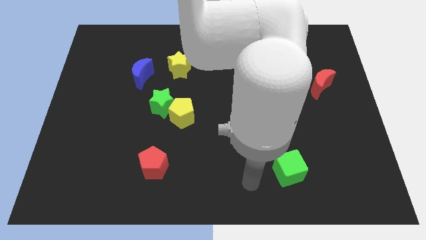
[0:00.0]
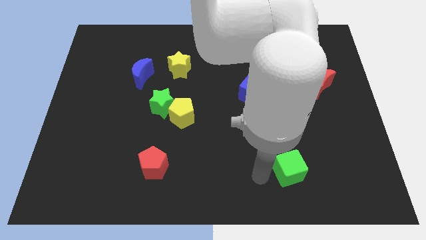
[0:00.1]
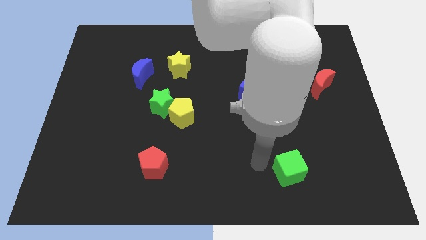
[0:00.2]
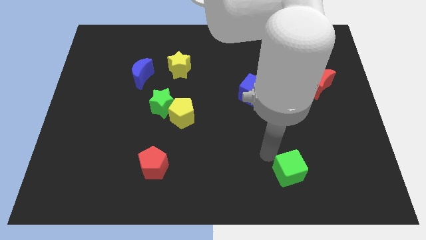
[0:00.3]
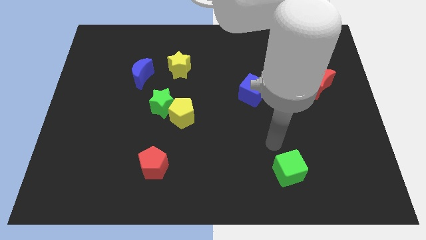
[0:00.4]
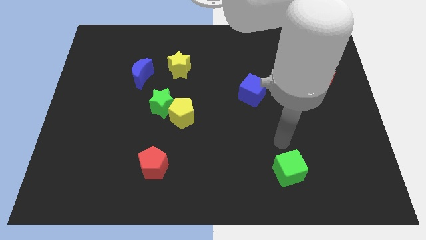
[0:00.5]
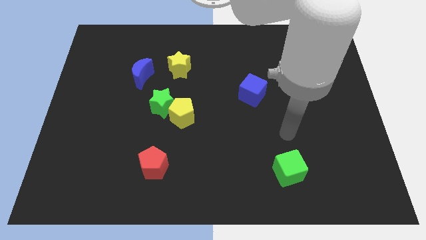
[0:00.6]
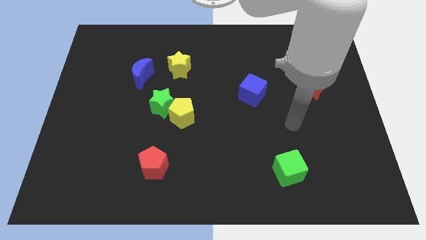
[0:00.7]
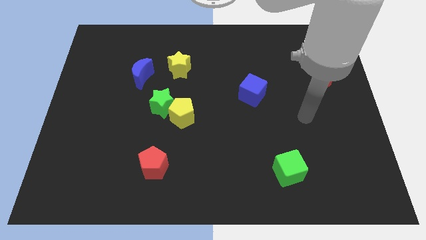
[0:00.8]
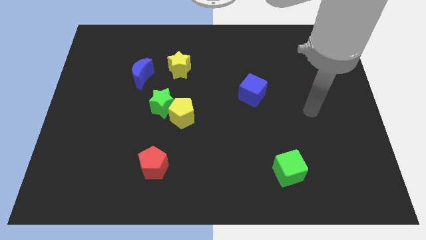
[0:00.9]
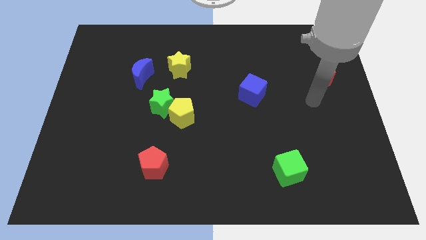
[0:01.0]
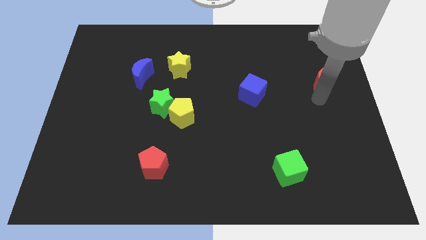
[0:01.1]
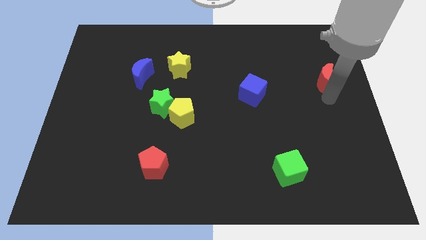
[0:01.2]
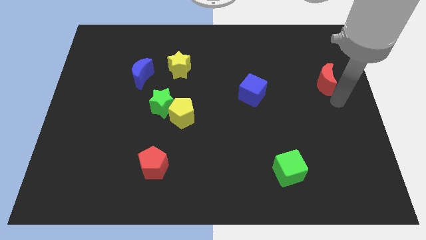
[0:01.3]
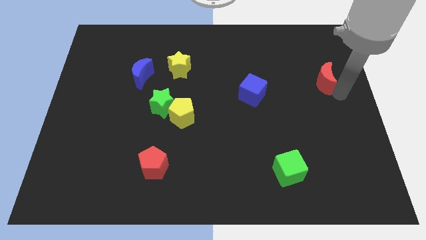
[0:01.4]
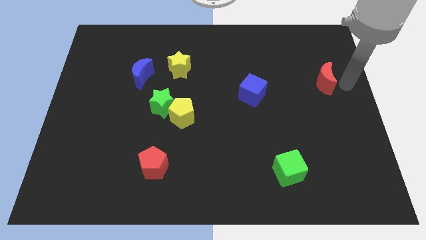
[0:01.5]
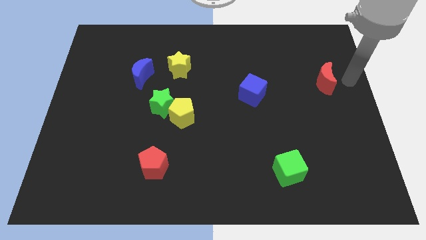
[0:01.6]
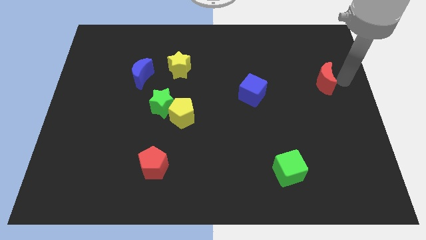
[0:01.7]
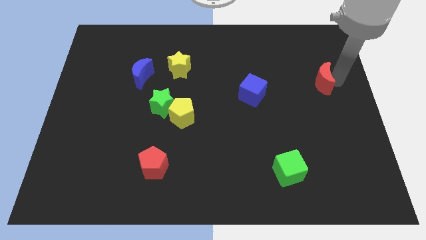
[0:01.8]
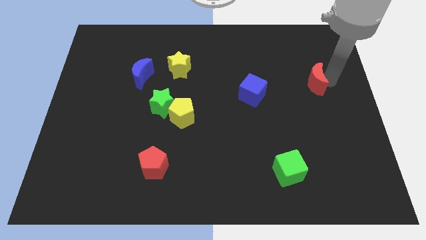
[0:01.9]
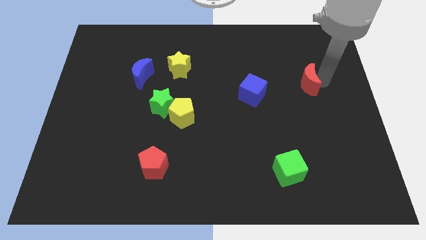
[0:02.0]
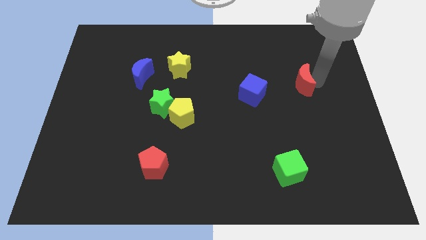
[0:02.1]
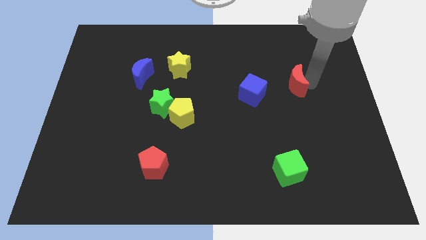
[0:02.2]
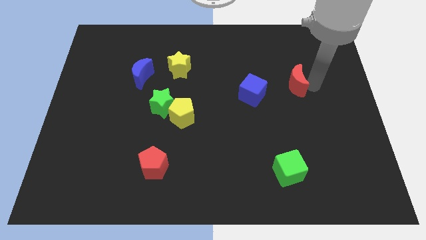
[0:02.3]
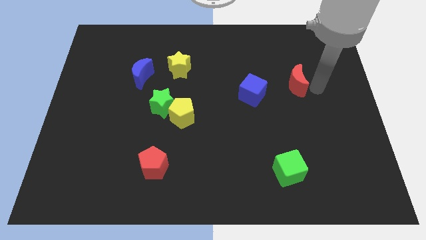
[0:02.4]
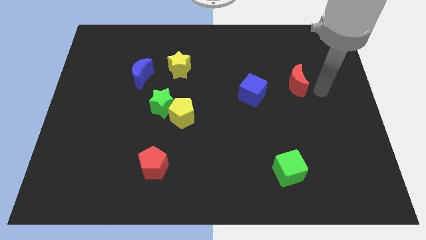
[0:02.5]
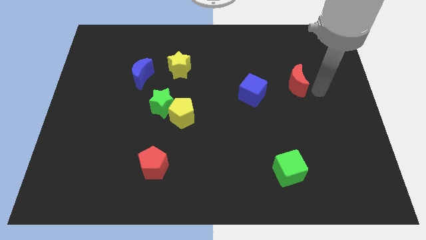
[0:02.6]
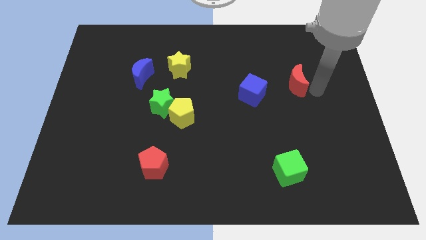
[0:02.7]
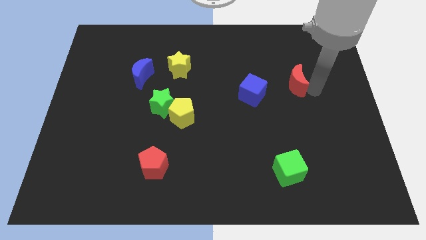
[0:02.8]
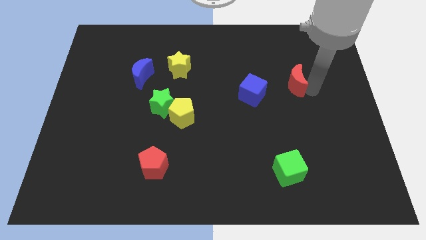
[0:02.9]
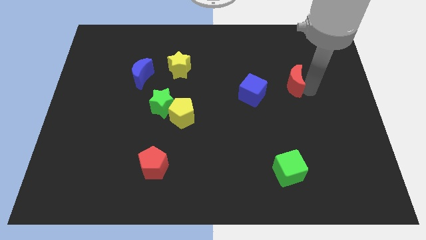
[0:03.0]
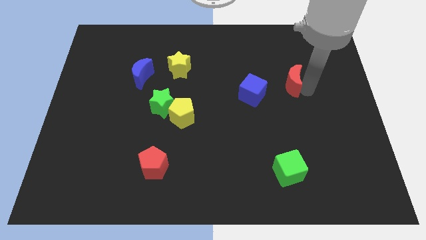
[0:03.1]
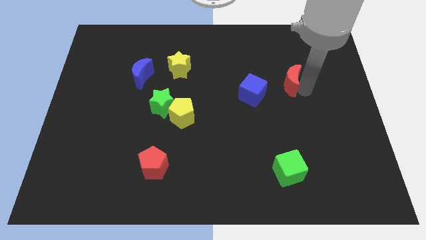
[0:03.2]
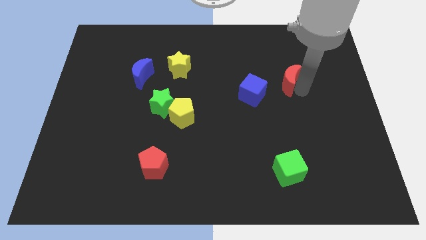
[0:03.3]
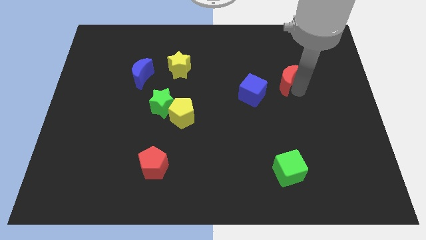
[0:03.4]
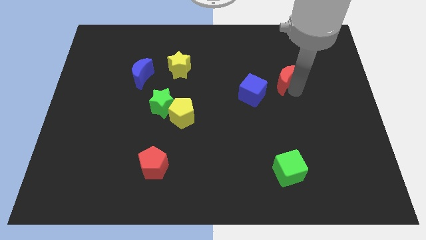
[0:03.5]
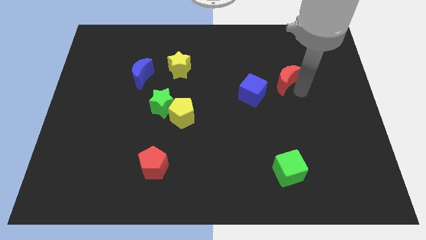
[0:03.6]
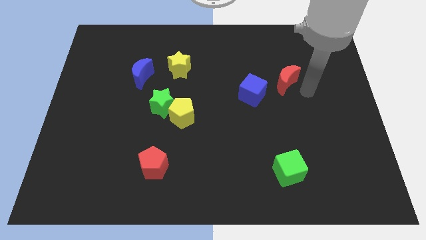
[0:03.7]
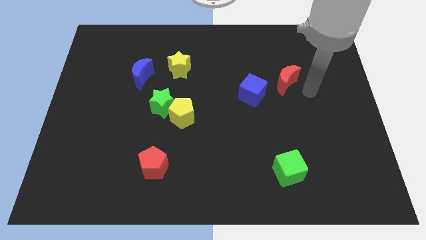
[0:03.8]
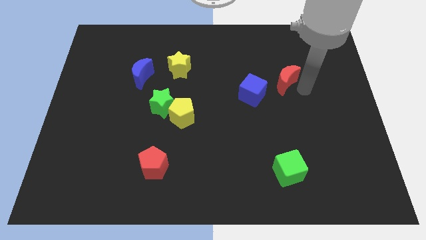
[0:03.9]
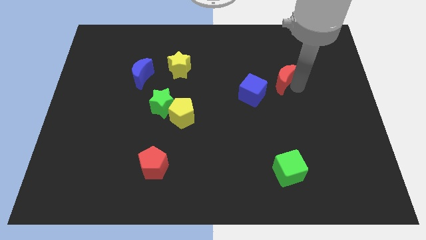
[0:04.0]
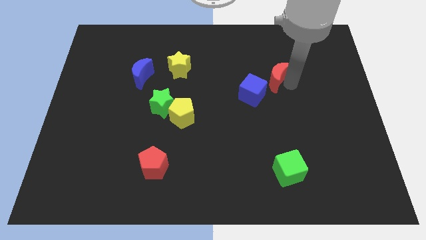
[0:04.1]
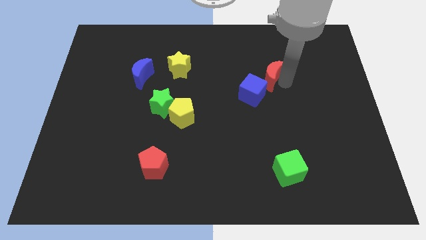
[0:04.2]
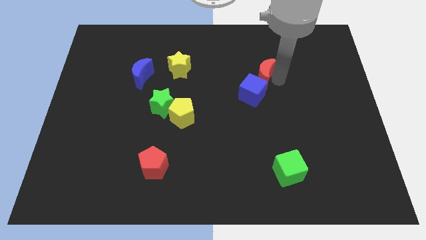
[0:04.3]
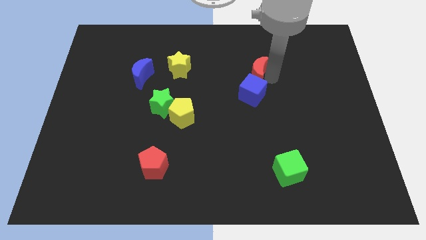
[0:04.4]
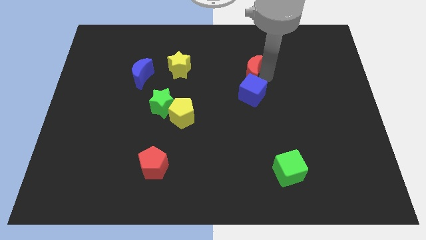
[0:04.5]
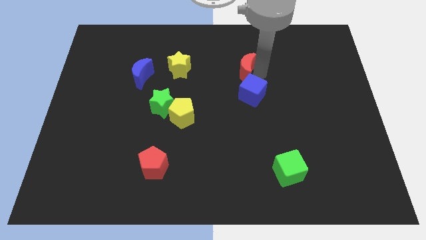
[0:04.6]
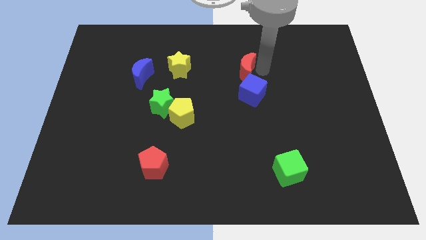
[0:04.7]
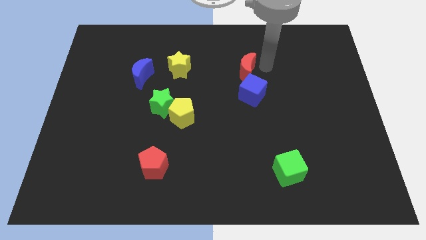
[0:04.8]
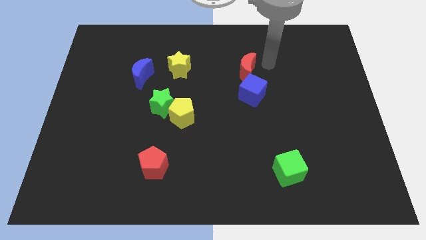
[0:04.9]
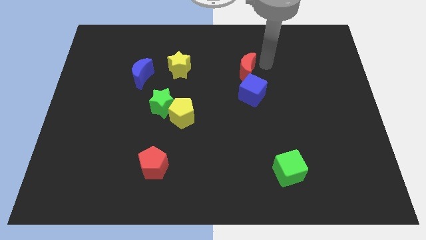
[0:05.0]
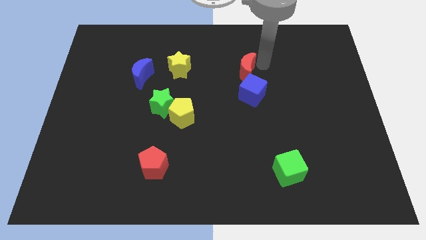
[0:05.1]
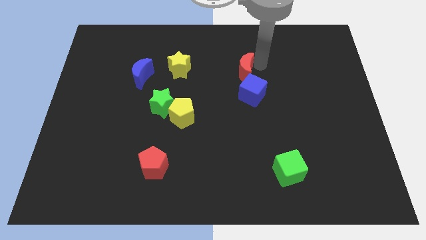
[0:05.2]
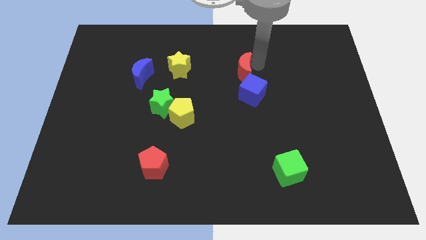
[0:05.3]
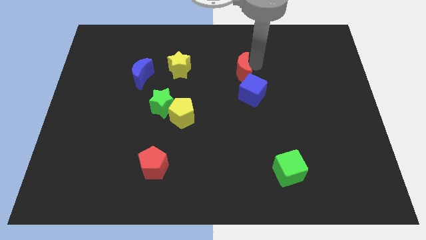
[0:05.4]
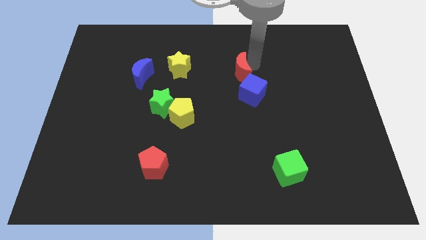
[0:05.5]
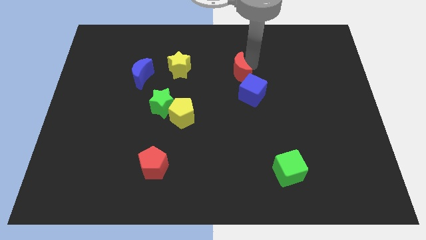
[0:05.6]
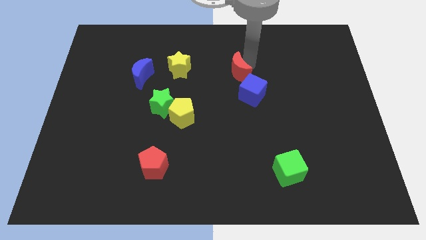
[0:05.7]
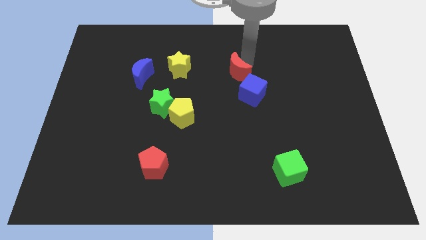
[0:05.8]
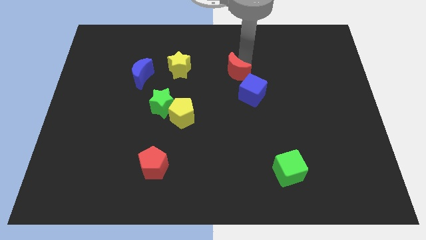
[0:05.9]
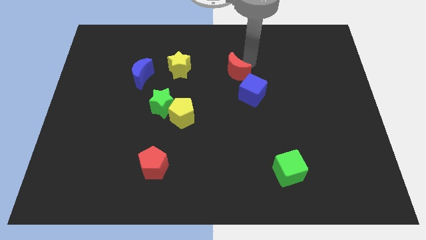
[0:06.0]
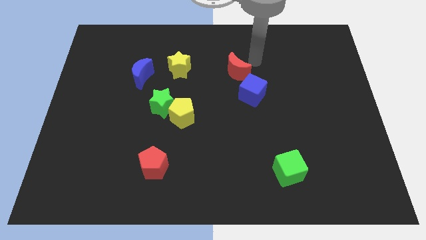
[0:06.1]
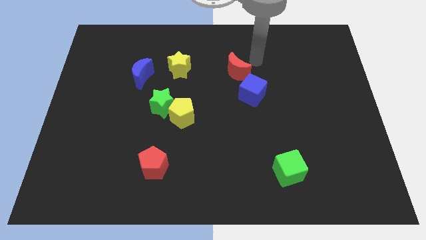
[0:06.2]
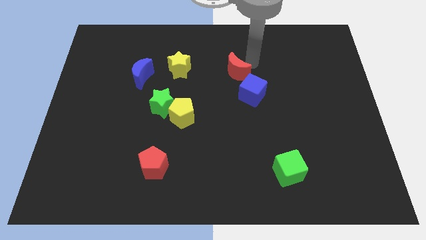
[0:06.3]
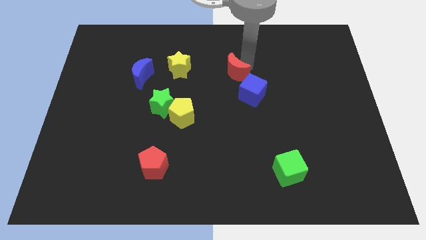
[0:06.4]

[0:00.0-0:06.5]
slide the red moon to the left

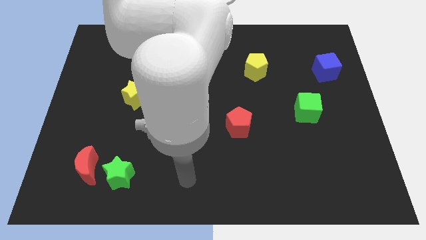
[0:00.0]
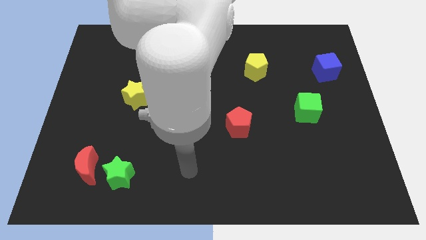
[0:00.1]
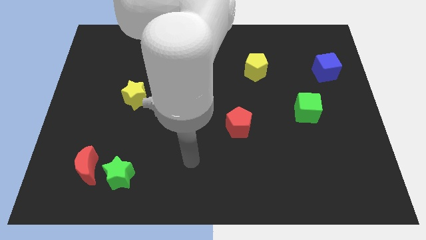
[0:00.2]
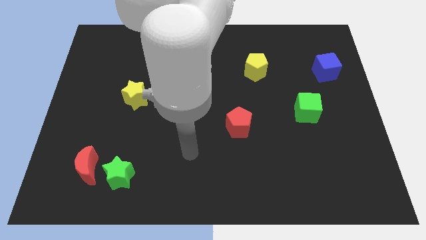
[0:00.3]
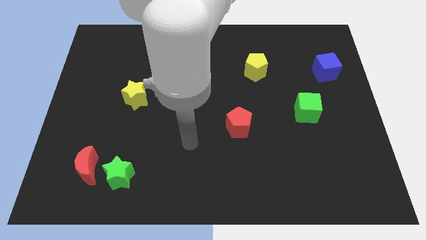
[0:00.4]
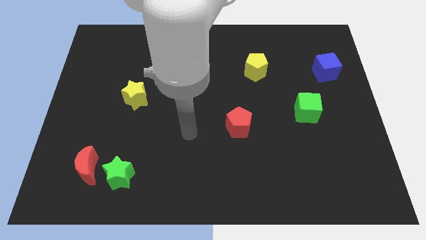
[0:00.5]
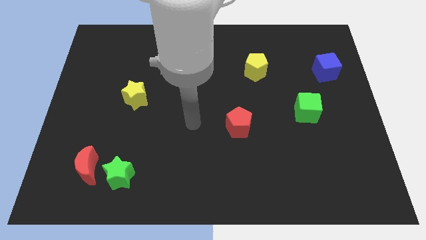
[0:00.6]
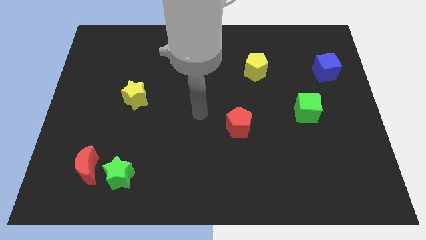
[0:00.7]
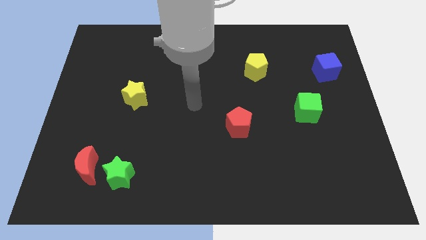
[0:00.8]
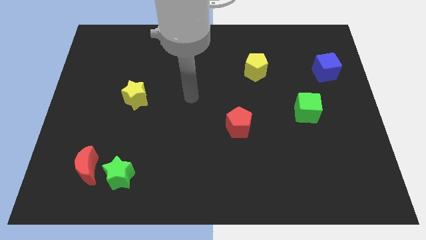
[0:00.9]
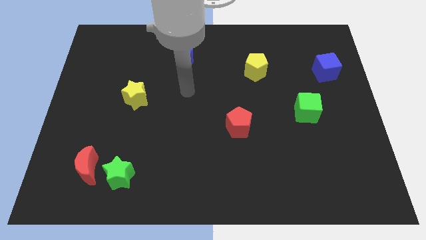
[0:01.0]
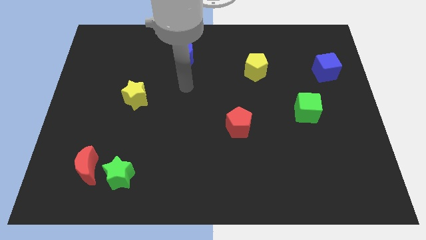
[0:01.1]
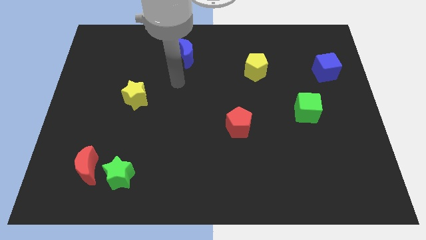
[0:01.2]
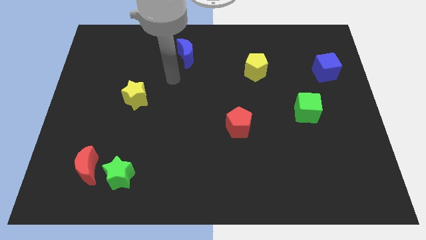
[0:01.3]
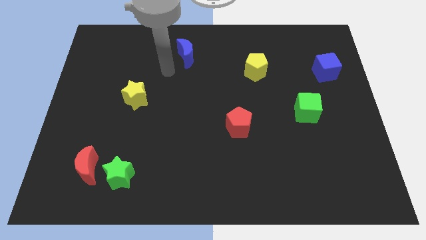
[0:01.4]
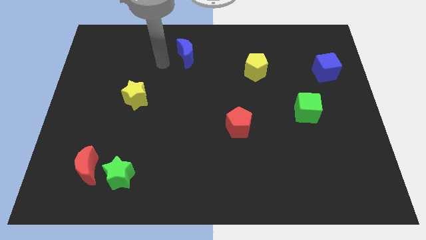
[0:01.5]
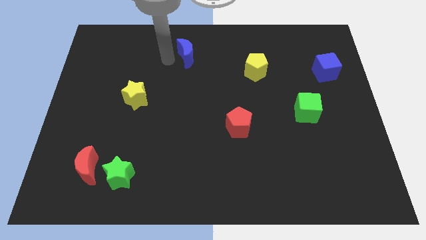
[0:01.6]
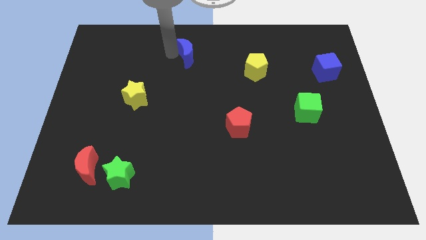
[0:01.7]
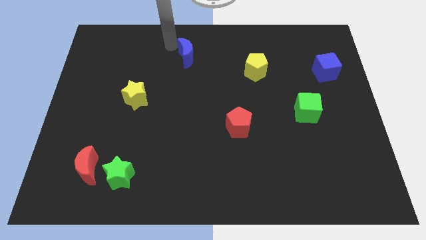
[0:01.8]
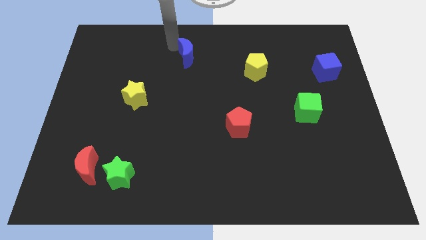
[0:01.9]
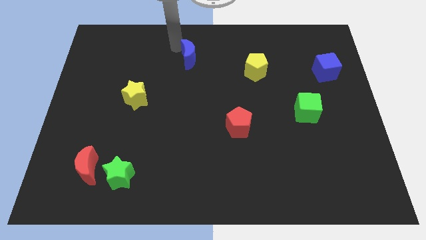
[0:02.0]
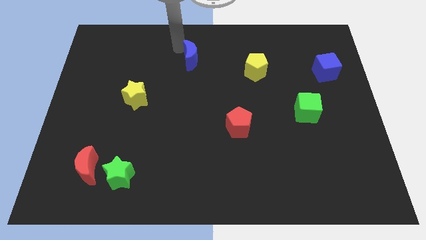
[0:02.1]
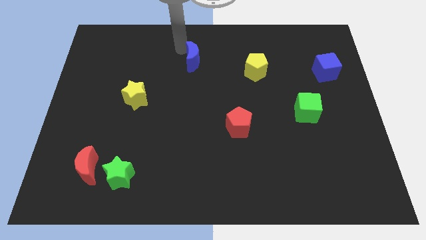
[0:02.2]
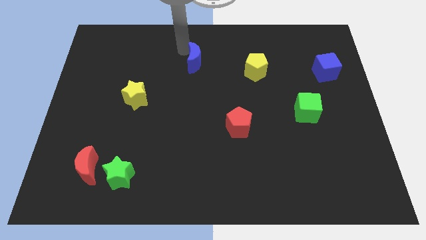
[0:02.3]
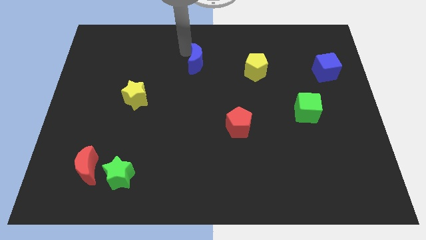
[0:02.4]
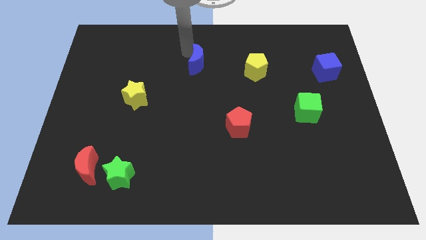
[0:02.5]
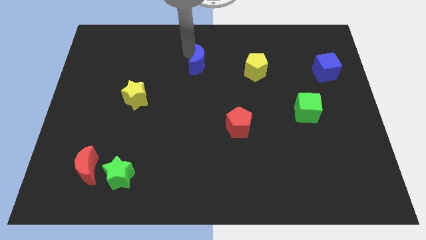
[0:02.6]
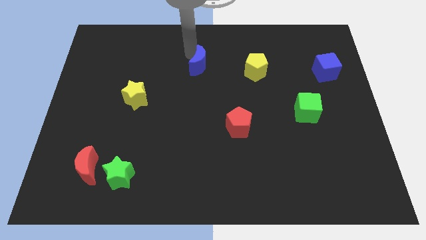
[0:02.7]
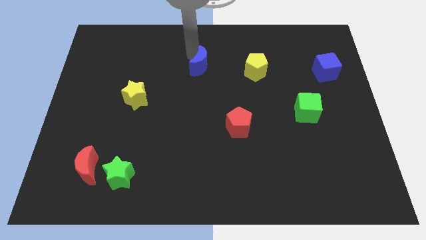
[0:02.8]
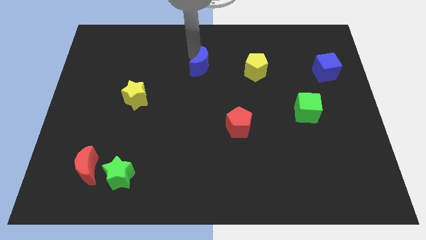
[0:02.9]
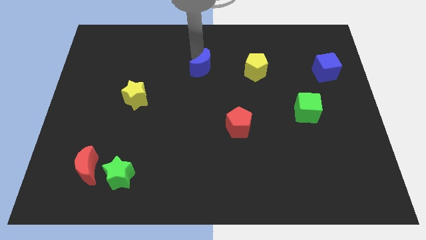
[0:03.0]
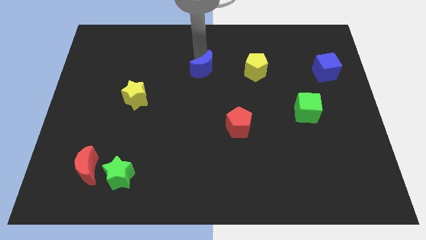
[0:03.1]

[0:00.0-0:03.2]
push the blue moon a little bit downwards and then right
